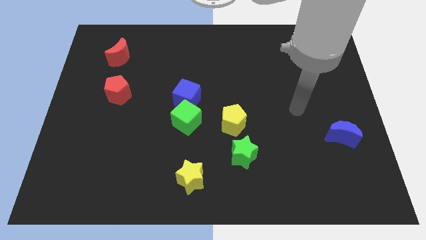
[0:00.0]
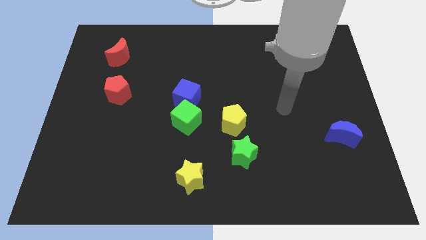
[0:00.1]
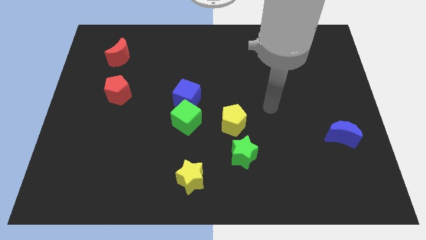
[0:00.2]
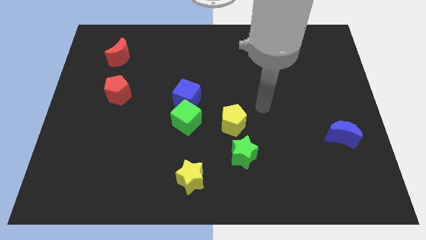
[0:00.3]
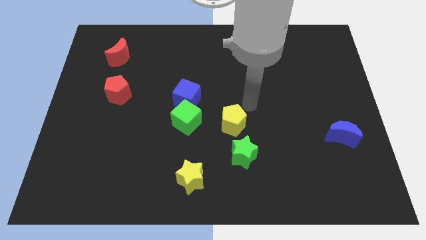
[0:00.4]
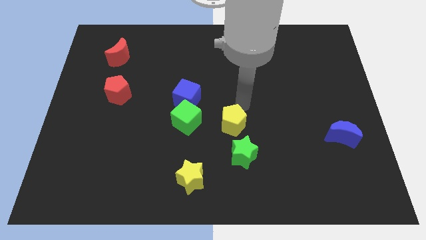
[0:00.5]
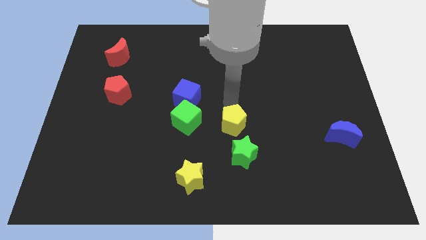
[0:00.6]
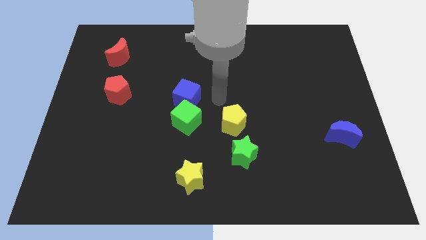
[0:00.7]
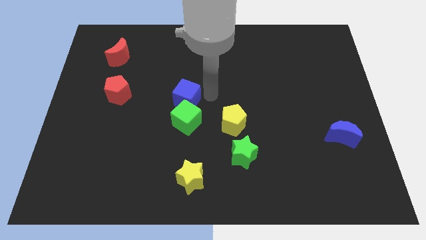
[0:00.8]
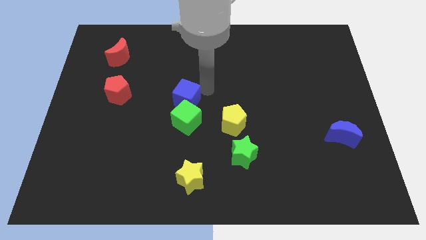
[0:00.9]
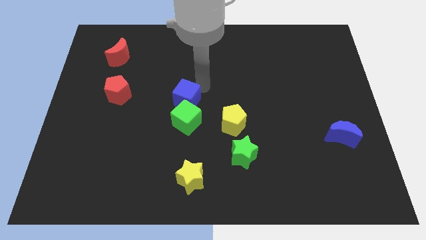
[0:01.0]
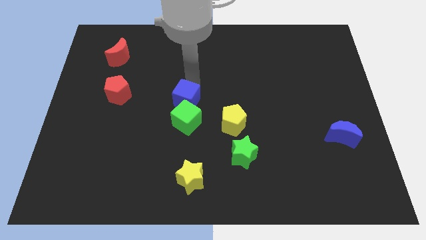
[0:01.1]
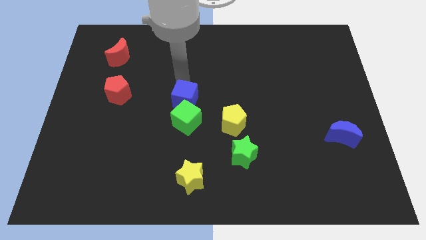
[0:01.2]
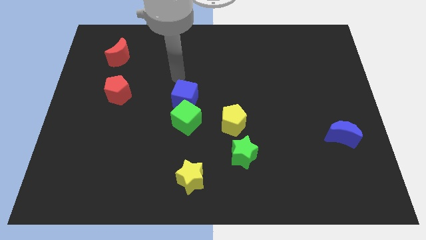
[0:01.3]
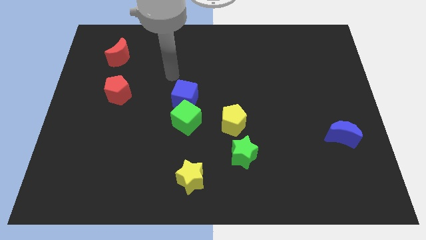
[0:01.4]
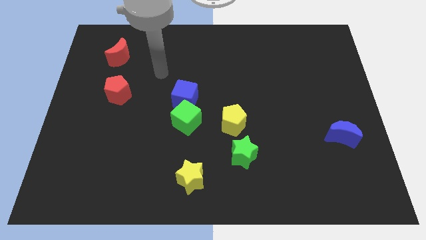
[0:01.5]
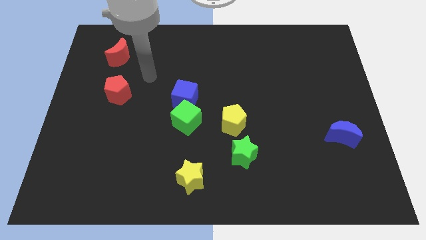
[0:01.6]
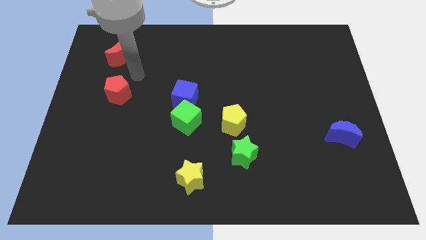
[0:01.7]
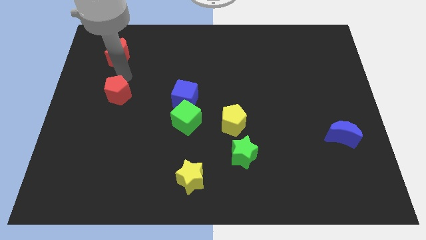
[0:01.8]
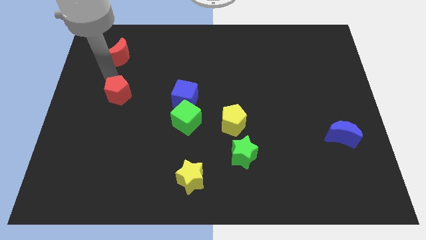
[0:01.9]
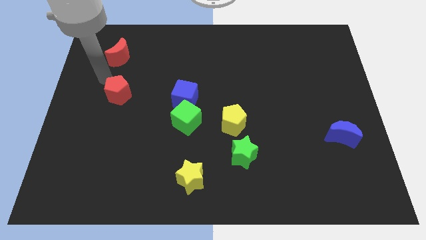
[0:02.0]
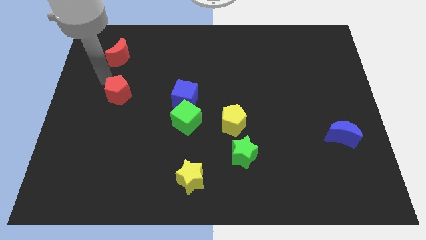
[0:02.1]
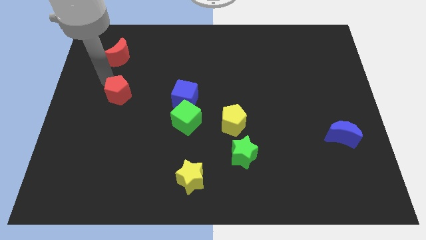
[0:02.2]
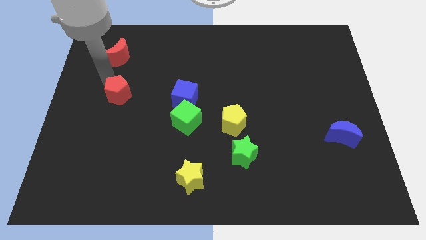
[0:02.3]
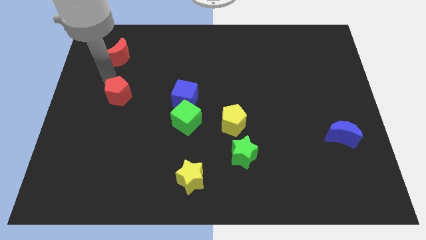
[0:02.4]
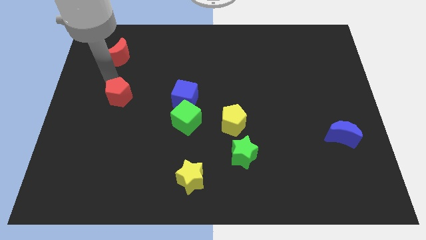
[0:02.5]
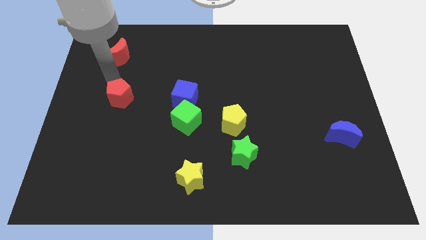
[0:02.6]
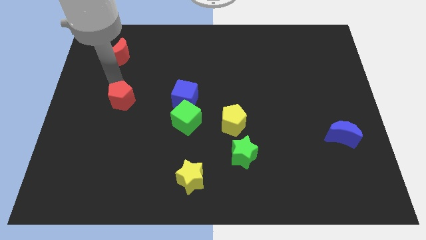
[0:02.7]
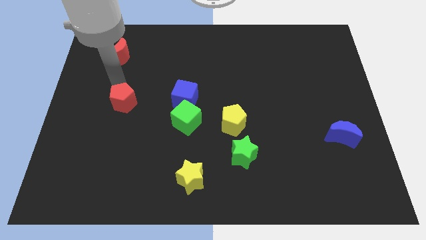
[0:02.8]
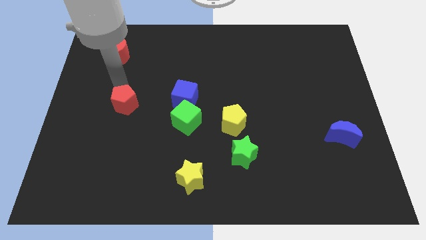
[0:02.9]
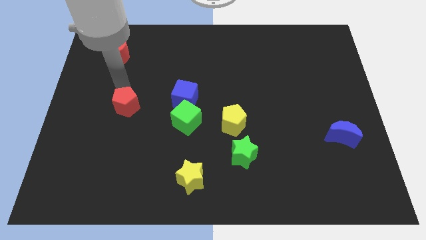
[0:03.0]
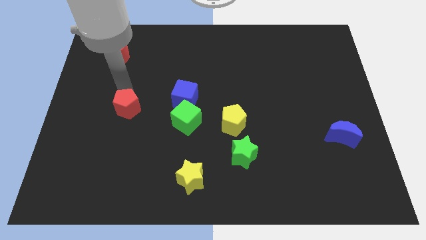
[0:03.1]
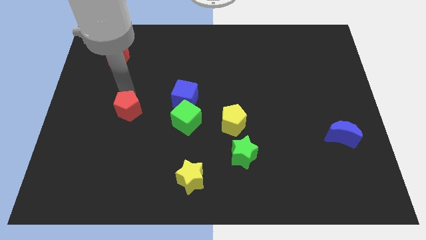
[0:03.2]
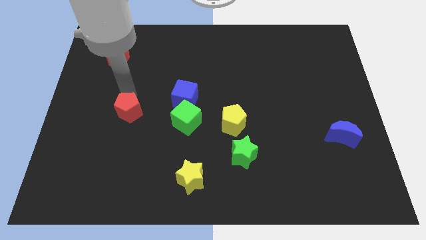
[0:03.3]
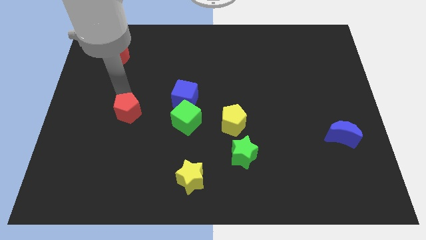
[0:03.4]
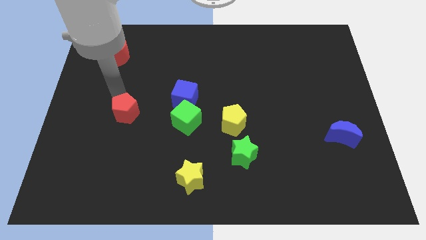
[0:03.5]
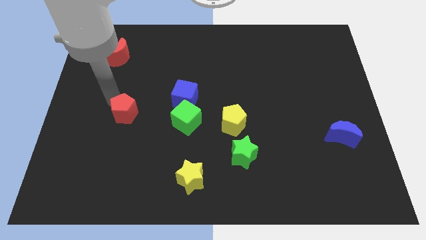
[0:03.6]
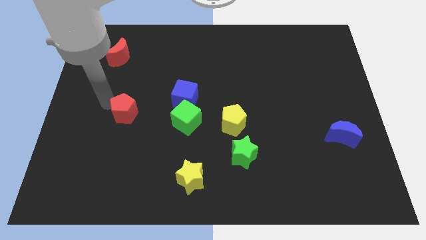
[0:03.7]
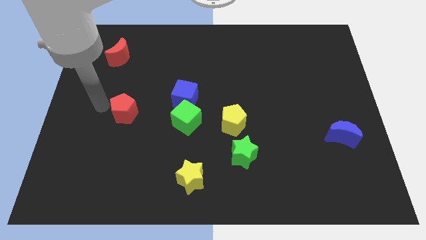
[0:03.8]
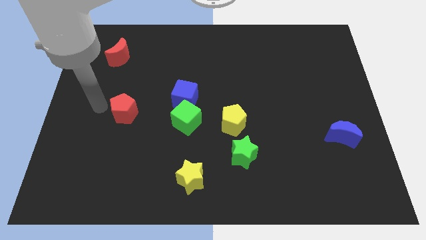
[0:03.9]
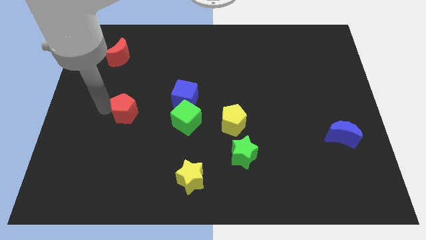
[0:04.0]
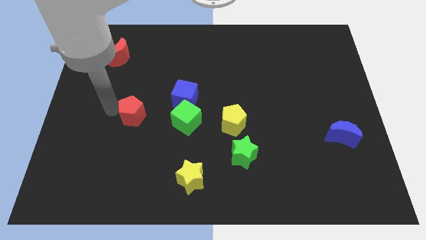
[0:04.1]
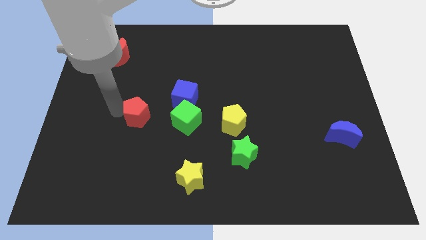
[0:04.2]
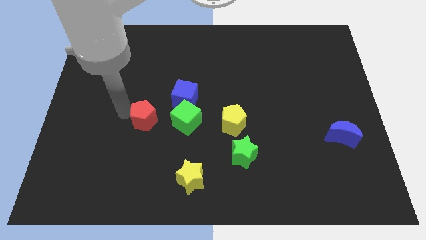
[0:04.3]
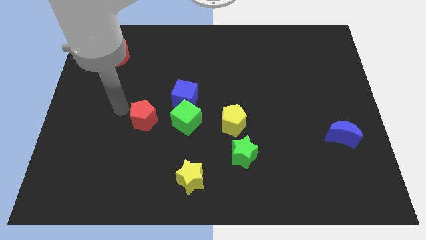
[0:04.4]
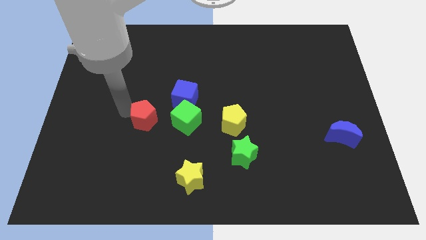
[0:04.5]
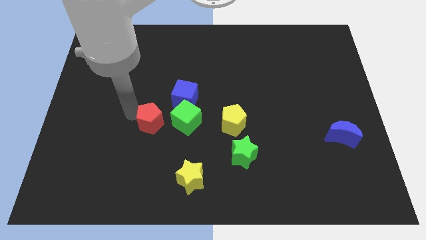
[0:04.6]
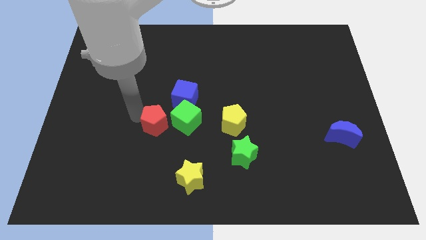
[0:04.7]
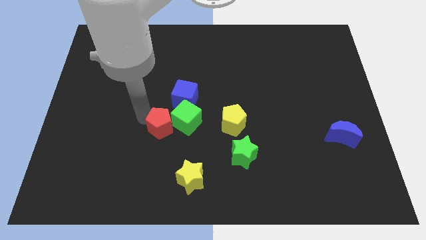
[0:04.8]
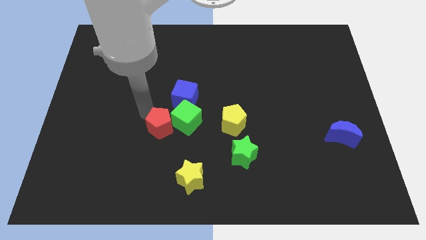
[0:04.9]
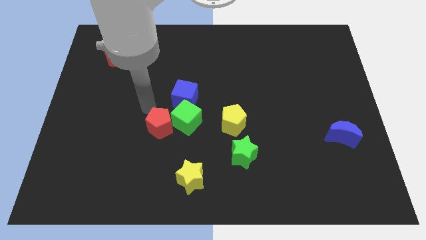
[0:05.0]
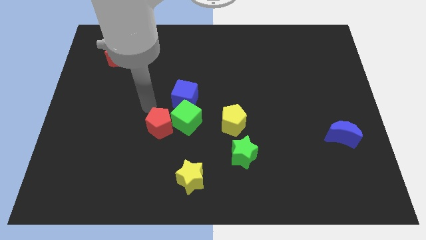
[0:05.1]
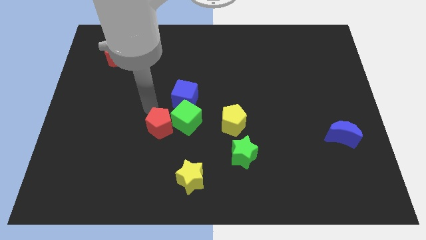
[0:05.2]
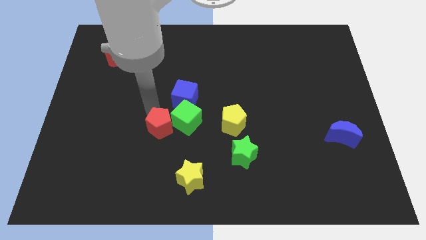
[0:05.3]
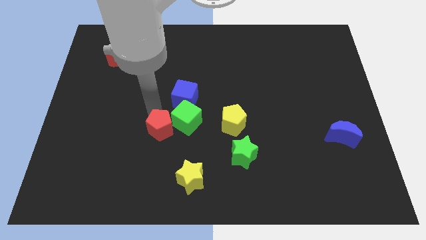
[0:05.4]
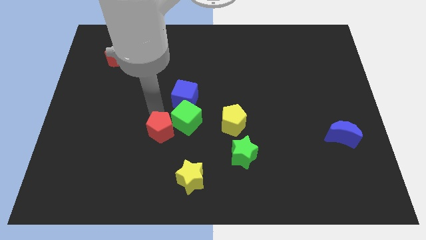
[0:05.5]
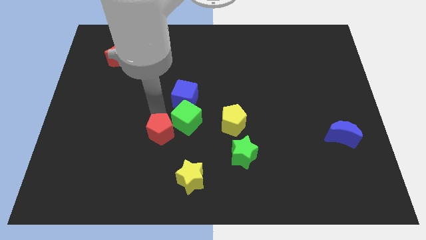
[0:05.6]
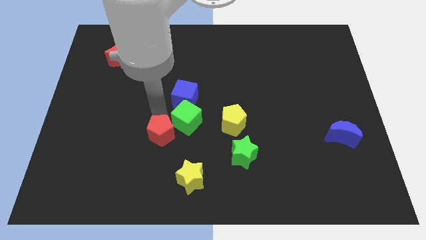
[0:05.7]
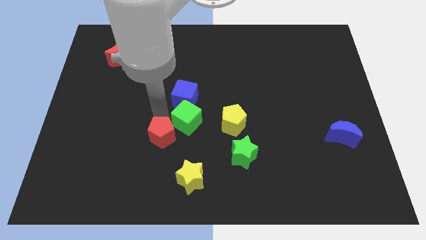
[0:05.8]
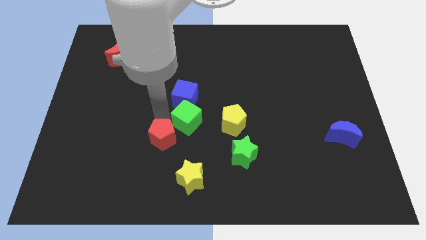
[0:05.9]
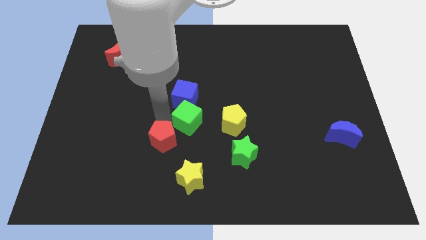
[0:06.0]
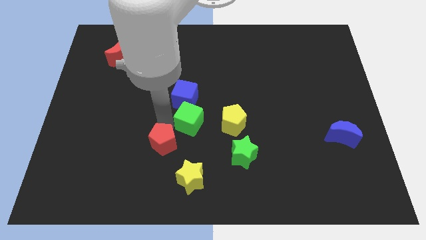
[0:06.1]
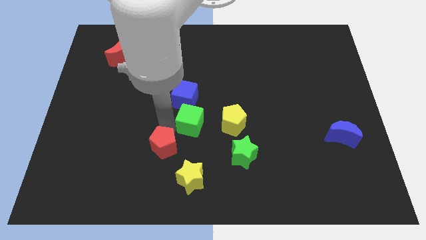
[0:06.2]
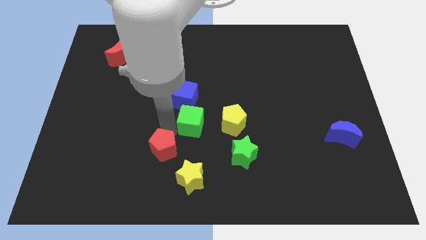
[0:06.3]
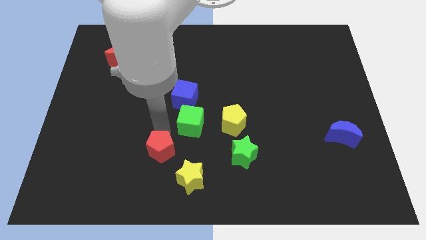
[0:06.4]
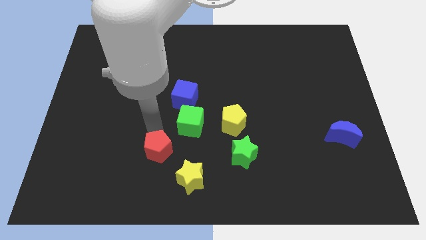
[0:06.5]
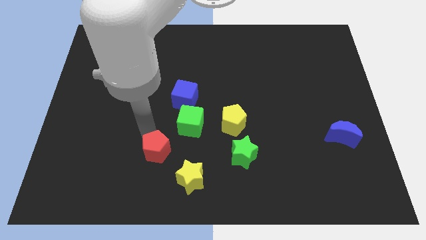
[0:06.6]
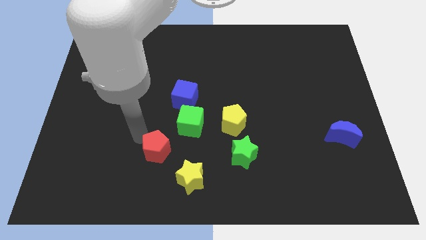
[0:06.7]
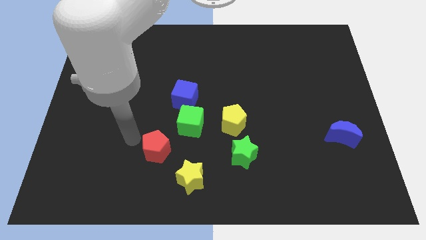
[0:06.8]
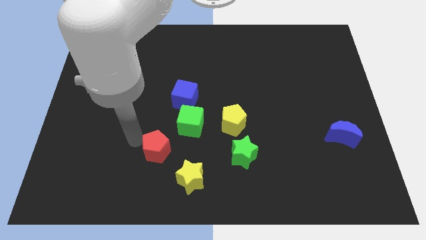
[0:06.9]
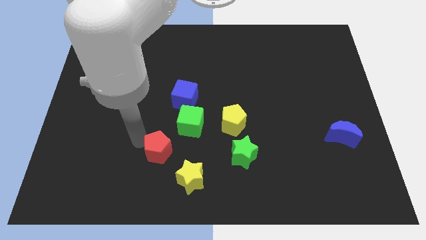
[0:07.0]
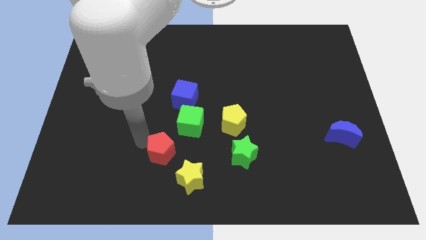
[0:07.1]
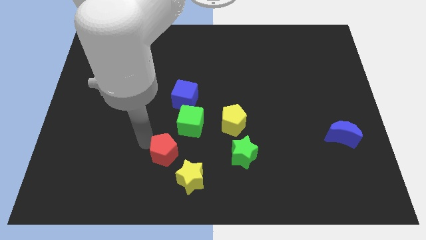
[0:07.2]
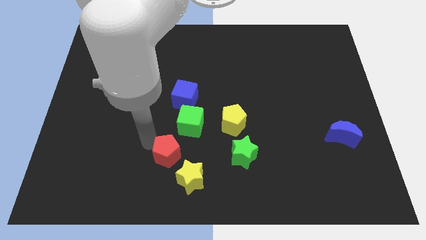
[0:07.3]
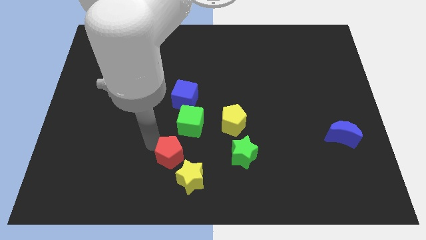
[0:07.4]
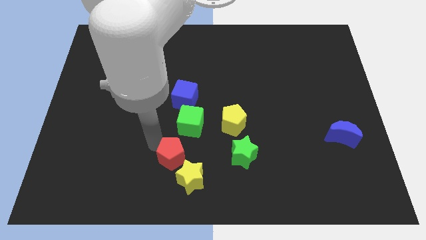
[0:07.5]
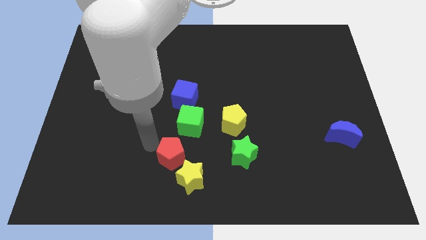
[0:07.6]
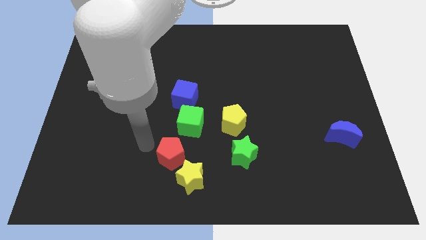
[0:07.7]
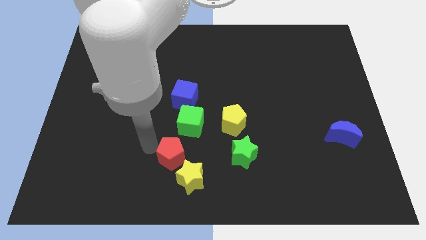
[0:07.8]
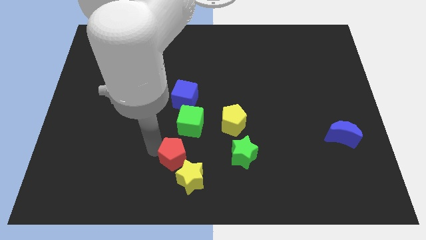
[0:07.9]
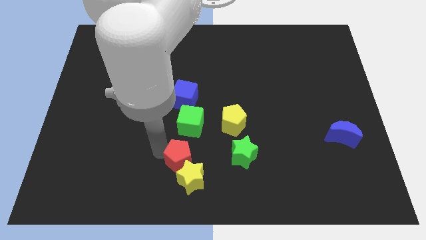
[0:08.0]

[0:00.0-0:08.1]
put the red pentagon close to the yellow star

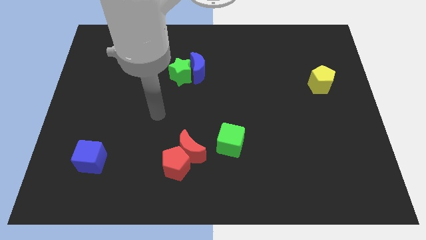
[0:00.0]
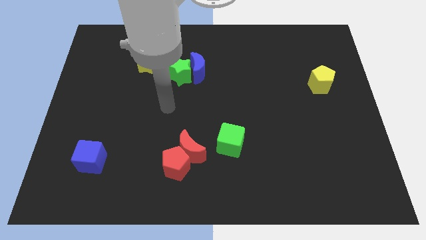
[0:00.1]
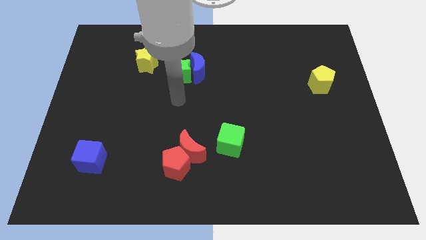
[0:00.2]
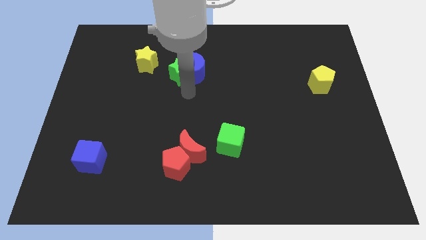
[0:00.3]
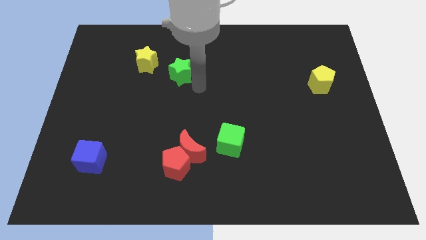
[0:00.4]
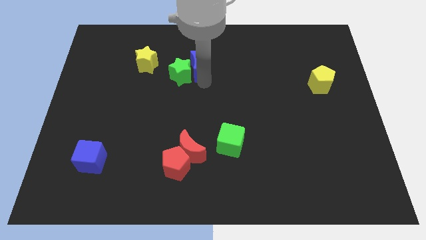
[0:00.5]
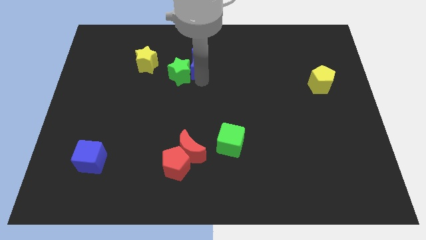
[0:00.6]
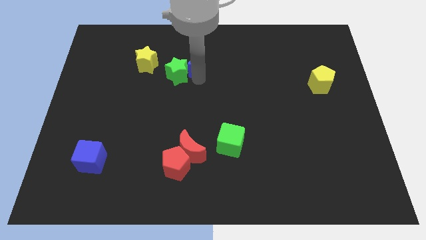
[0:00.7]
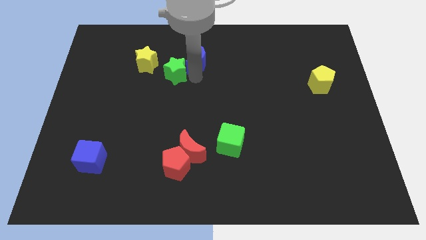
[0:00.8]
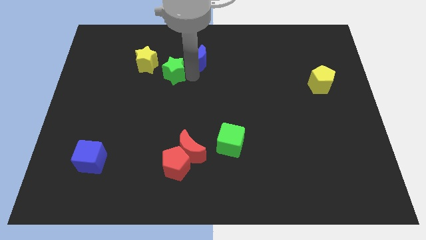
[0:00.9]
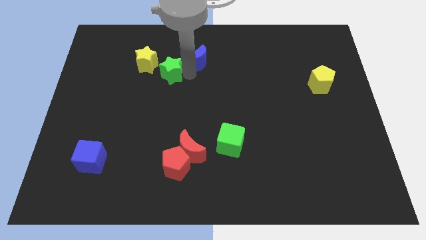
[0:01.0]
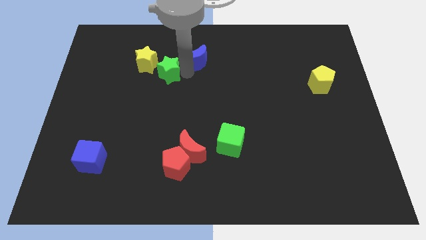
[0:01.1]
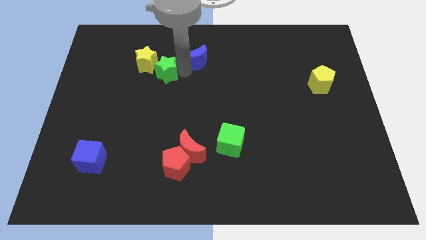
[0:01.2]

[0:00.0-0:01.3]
slide the green star to the yellow star
